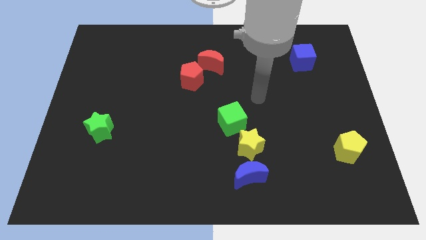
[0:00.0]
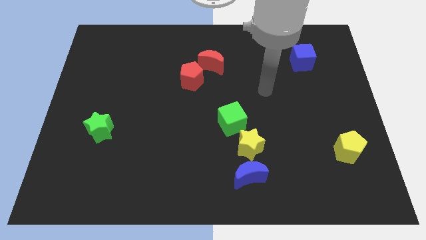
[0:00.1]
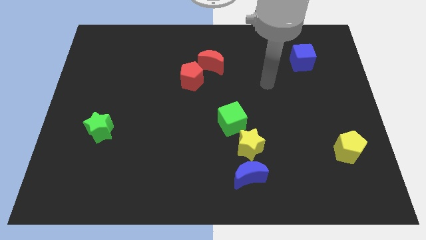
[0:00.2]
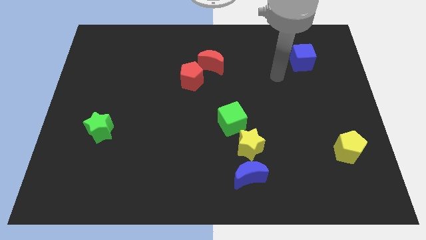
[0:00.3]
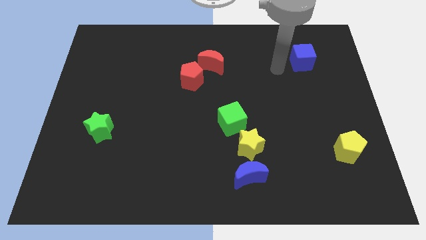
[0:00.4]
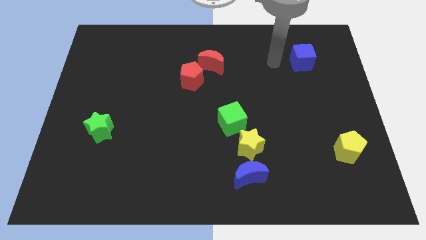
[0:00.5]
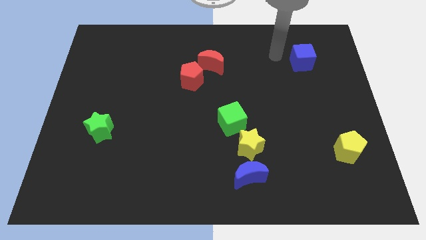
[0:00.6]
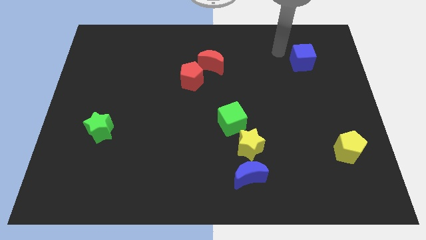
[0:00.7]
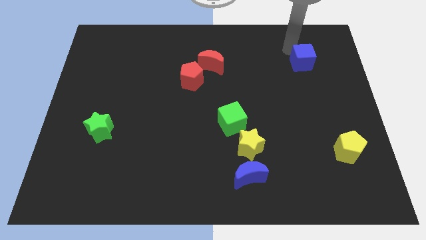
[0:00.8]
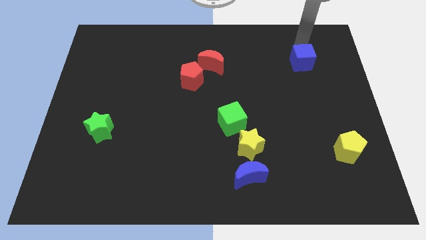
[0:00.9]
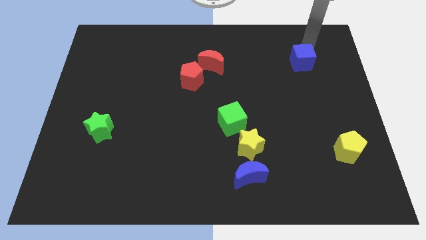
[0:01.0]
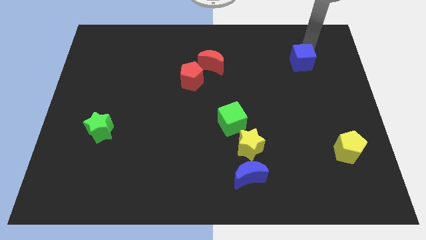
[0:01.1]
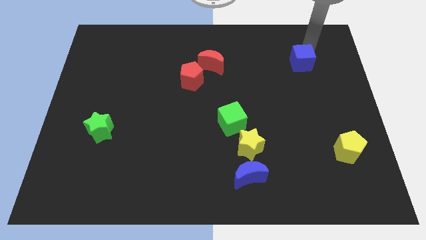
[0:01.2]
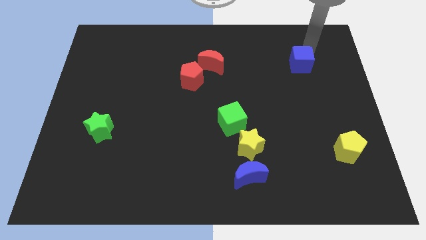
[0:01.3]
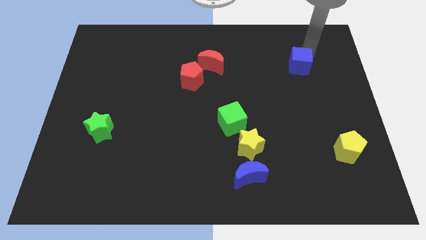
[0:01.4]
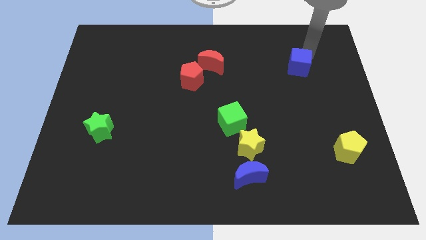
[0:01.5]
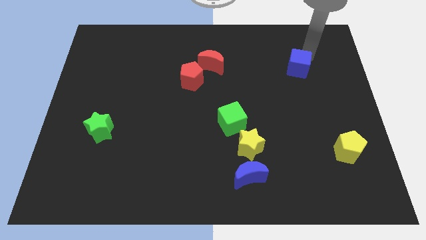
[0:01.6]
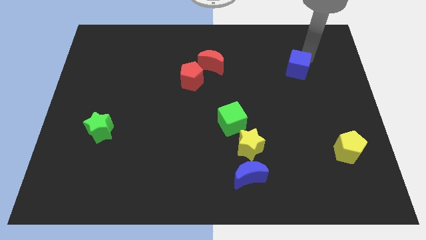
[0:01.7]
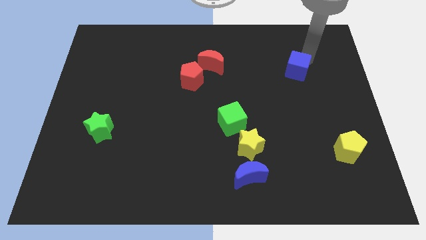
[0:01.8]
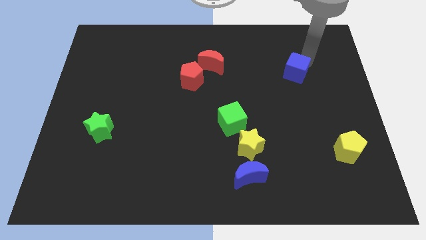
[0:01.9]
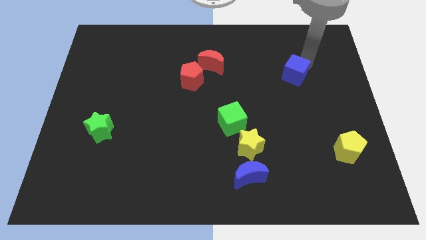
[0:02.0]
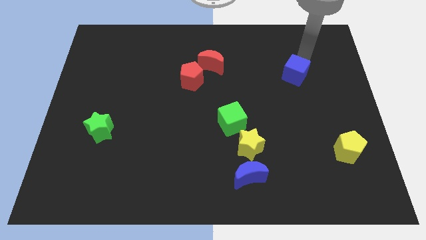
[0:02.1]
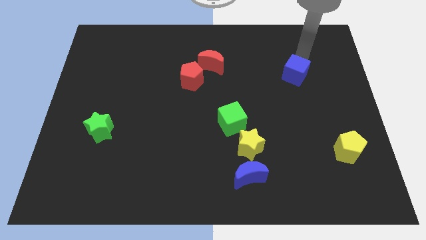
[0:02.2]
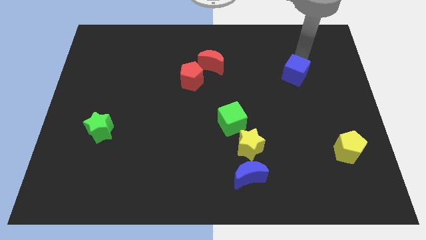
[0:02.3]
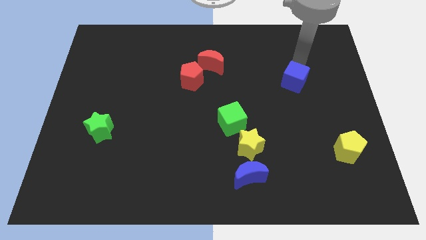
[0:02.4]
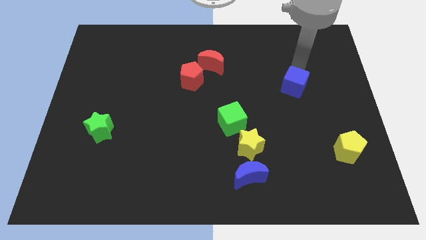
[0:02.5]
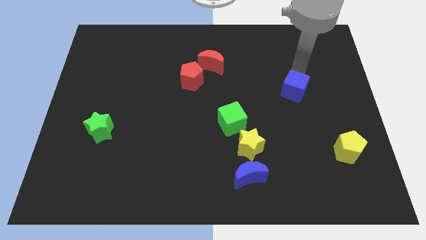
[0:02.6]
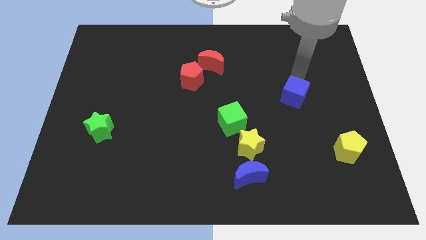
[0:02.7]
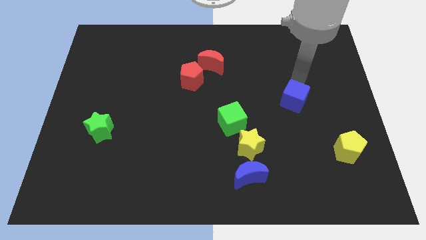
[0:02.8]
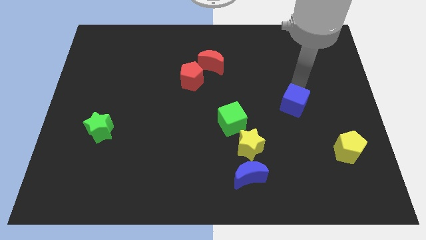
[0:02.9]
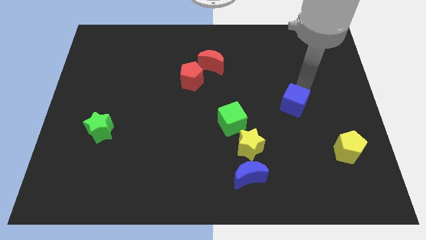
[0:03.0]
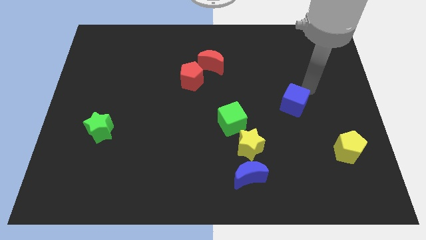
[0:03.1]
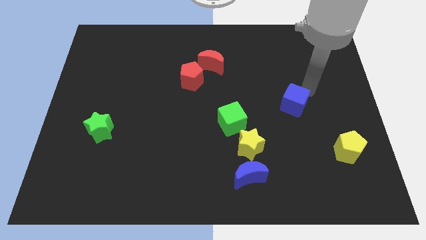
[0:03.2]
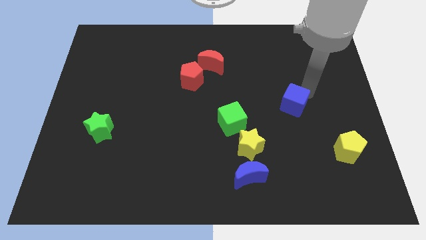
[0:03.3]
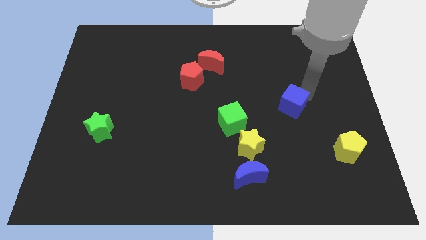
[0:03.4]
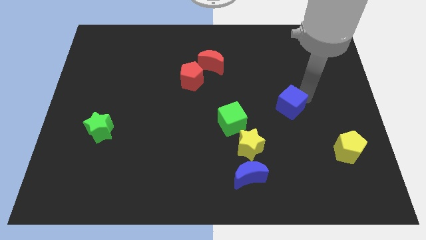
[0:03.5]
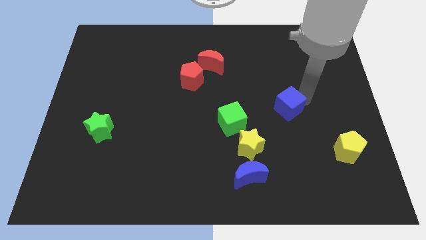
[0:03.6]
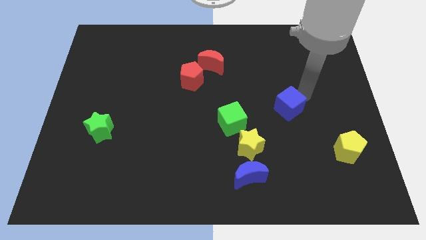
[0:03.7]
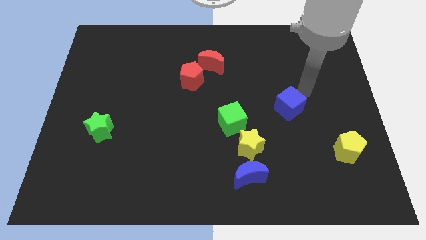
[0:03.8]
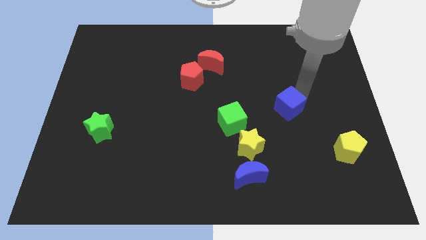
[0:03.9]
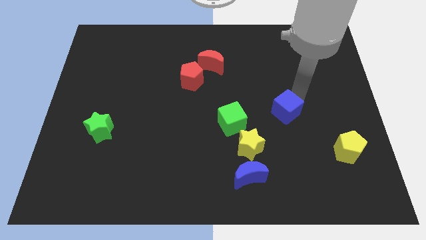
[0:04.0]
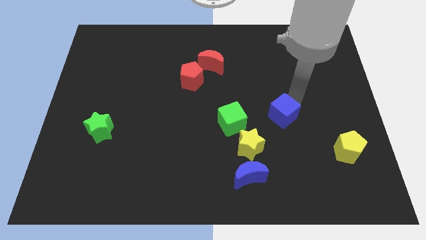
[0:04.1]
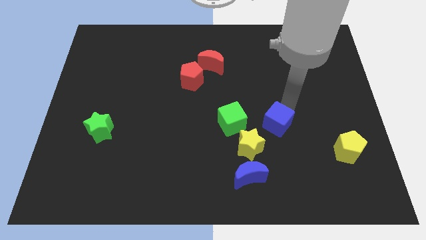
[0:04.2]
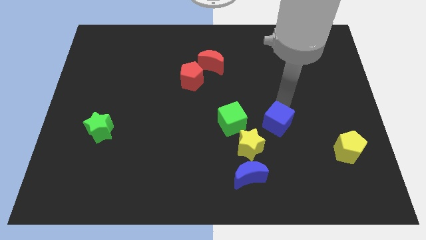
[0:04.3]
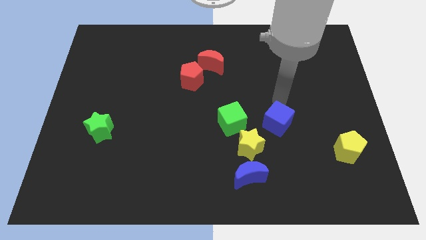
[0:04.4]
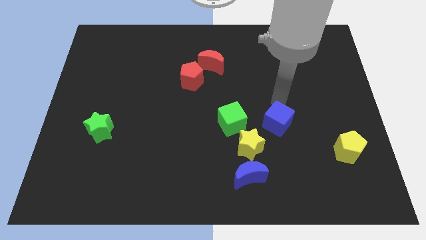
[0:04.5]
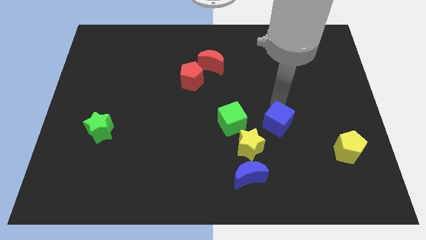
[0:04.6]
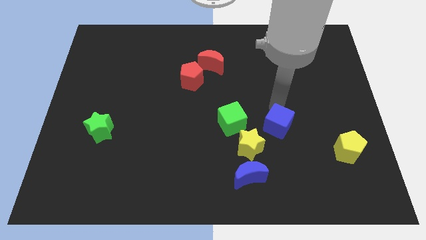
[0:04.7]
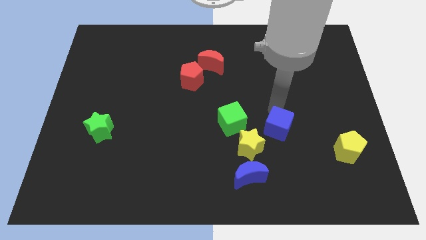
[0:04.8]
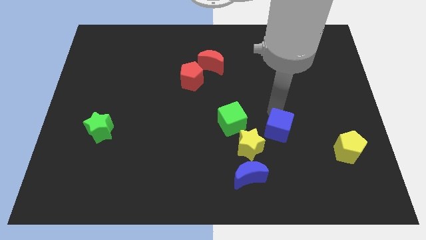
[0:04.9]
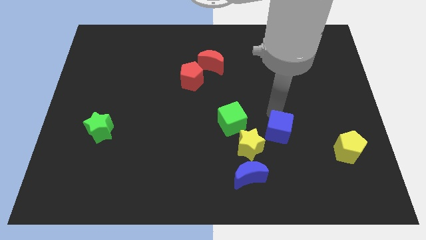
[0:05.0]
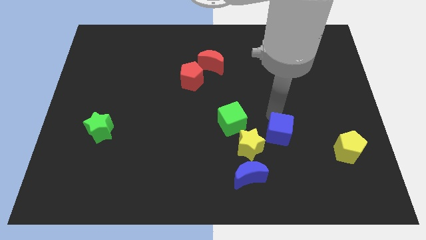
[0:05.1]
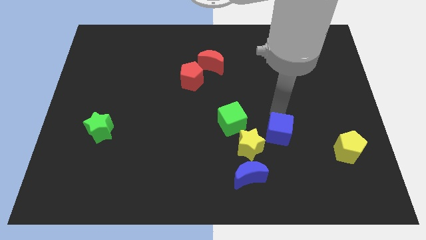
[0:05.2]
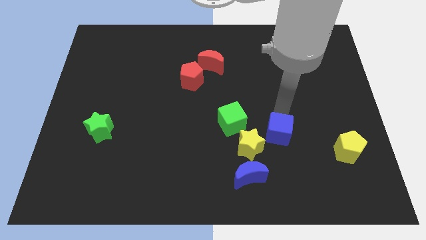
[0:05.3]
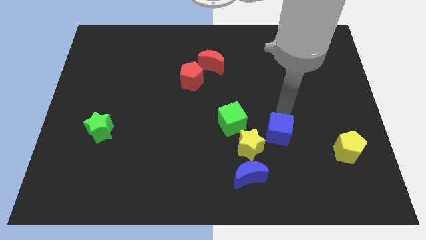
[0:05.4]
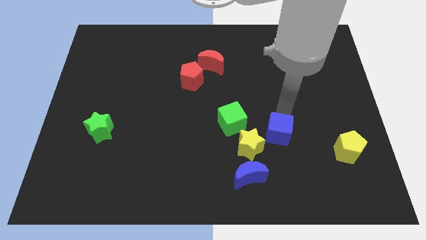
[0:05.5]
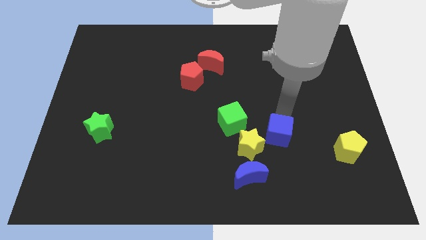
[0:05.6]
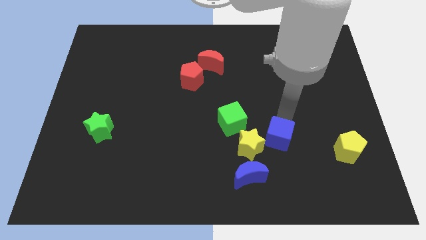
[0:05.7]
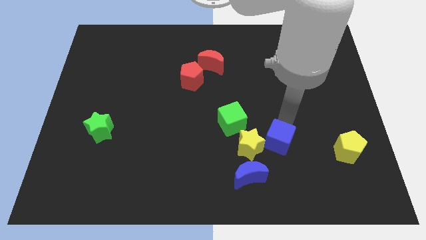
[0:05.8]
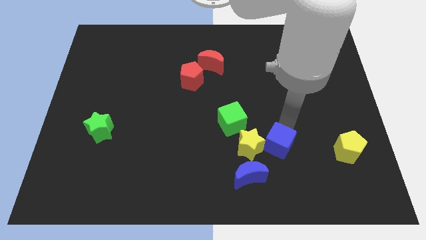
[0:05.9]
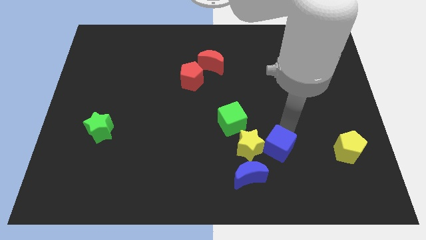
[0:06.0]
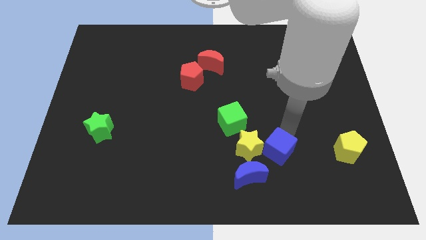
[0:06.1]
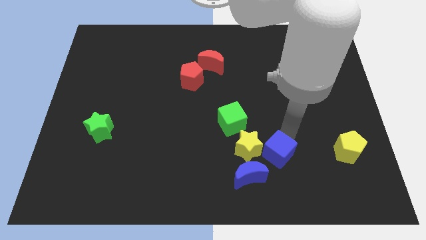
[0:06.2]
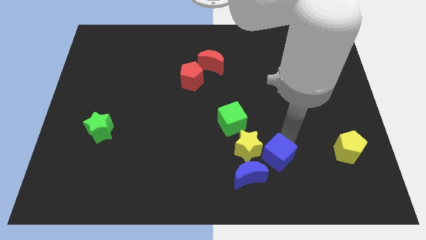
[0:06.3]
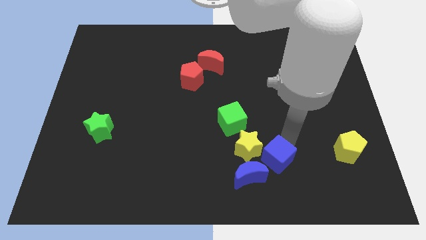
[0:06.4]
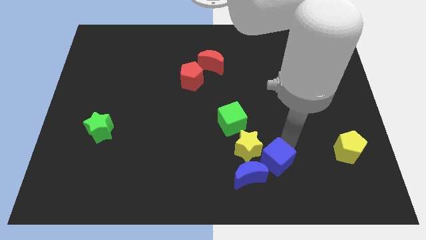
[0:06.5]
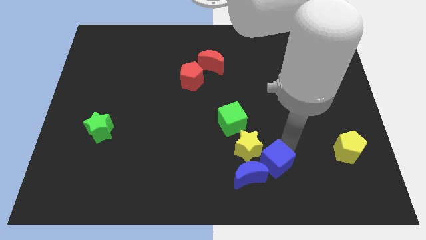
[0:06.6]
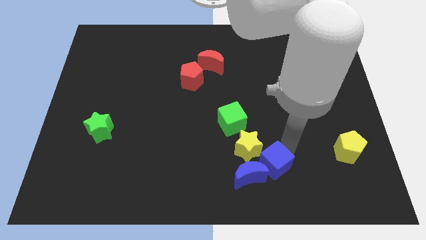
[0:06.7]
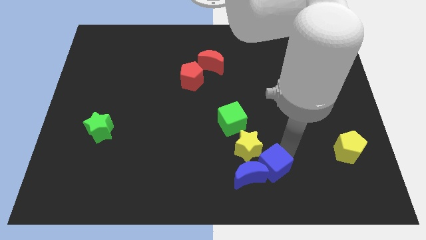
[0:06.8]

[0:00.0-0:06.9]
move the blue cube to the blue moon
